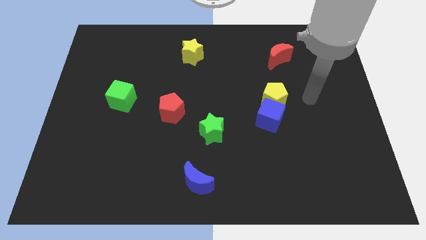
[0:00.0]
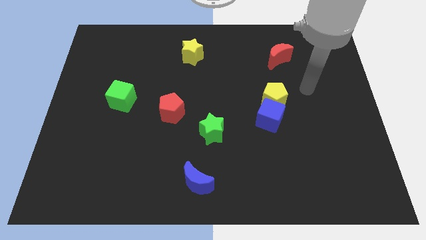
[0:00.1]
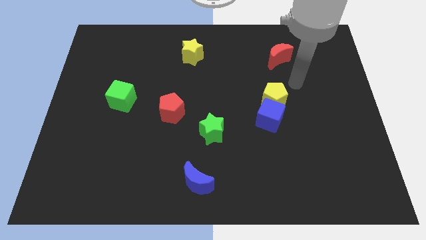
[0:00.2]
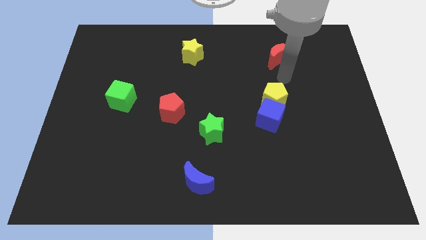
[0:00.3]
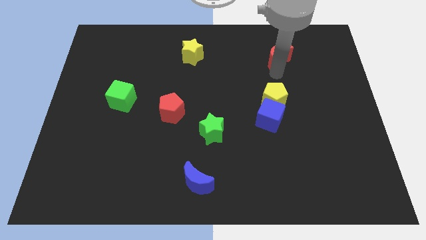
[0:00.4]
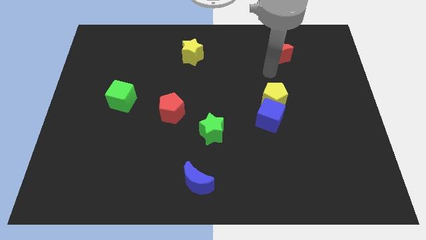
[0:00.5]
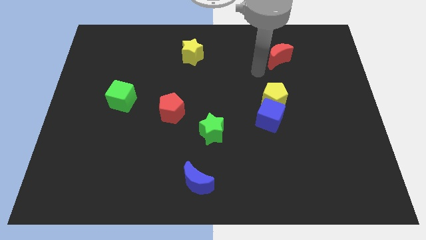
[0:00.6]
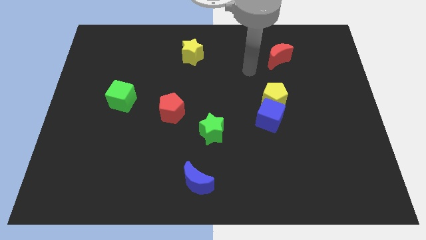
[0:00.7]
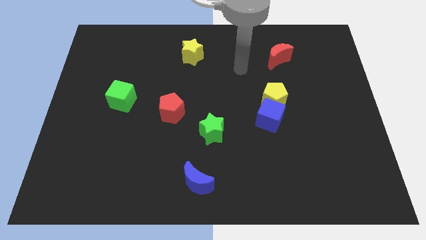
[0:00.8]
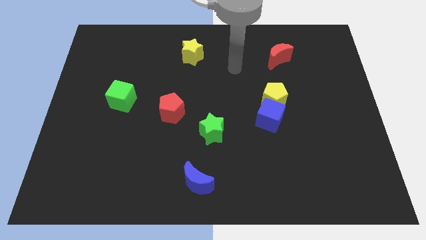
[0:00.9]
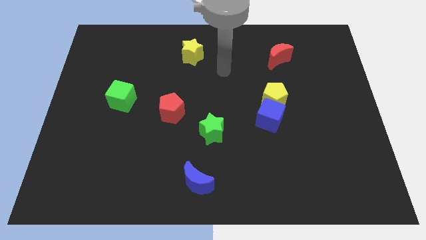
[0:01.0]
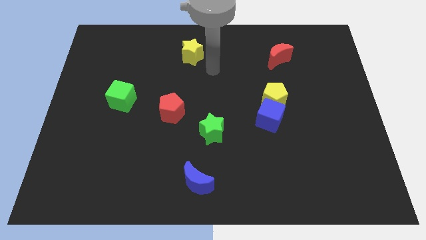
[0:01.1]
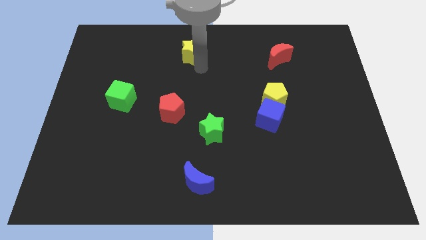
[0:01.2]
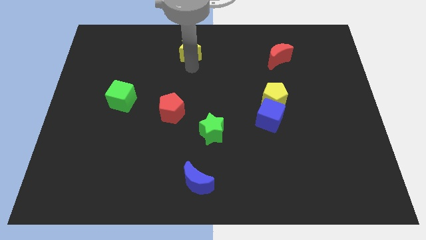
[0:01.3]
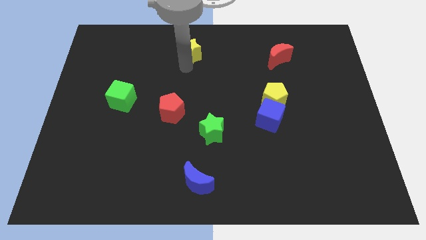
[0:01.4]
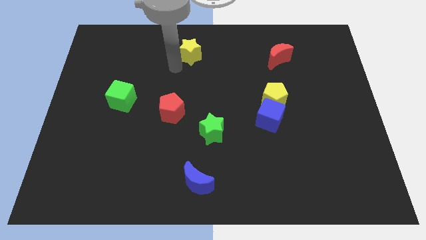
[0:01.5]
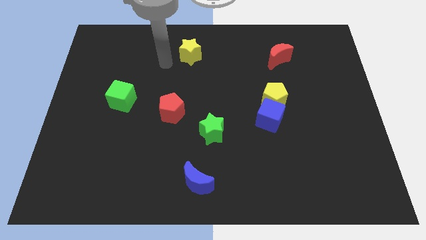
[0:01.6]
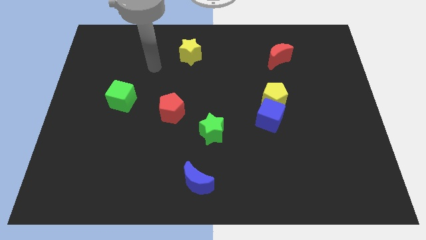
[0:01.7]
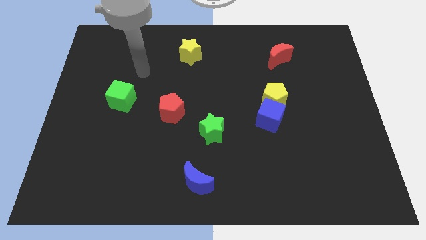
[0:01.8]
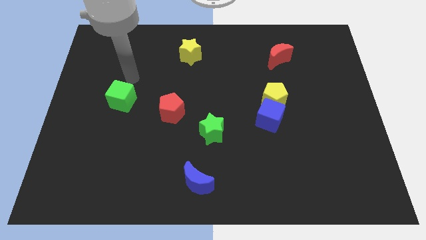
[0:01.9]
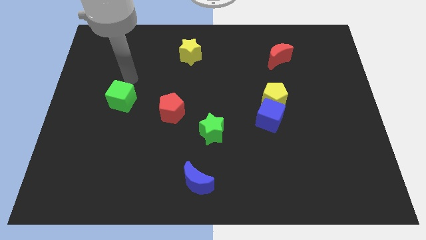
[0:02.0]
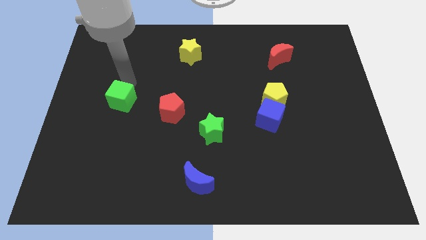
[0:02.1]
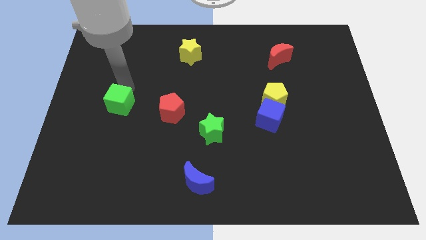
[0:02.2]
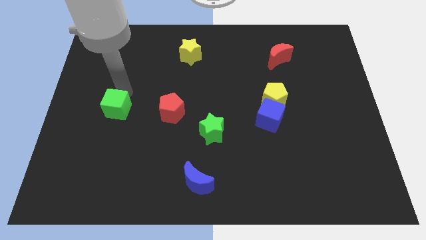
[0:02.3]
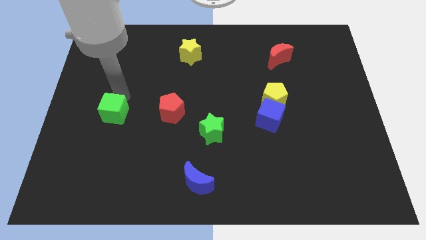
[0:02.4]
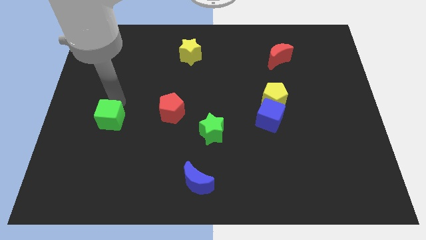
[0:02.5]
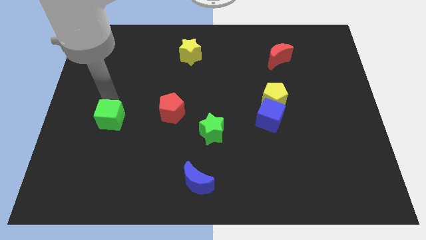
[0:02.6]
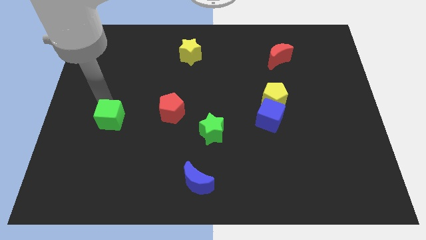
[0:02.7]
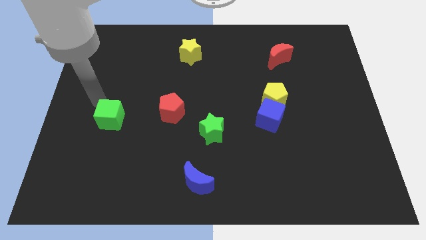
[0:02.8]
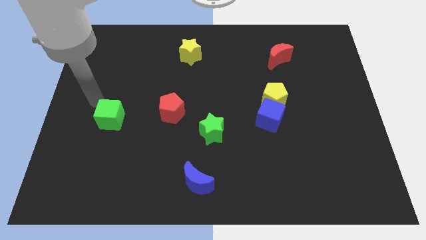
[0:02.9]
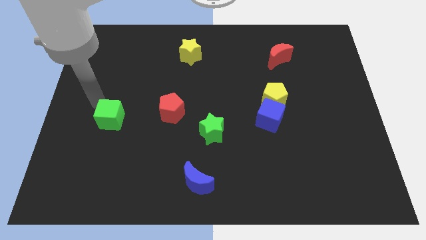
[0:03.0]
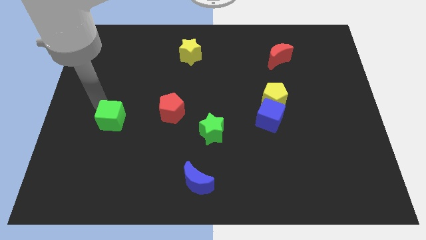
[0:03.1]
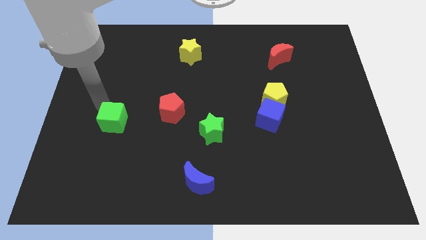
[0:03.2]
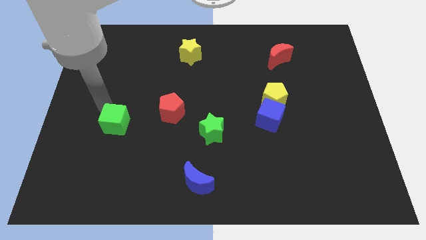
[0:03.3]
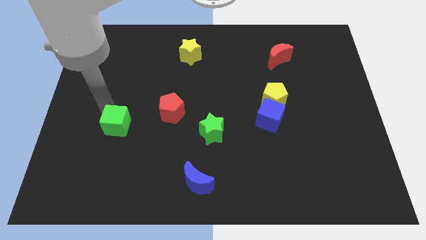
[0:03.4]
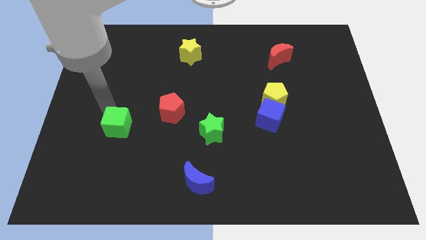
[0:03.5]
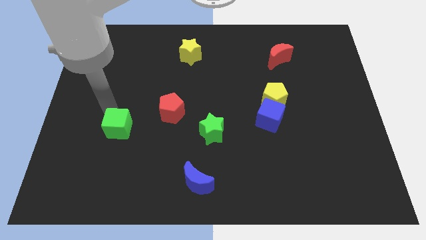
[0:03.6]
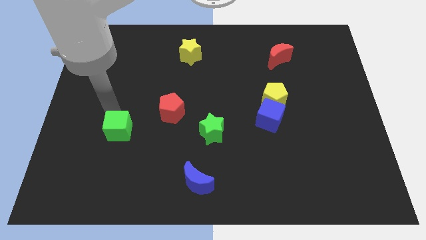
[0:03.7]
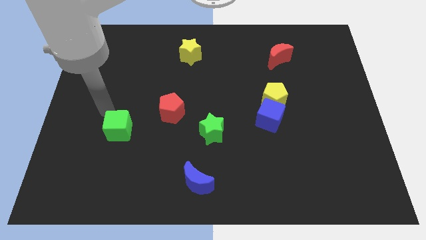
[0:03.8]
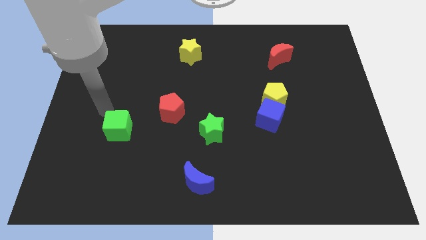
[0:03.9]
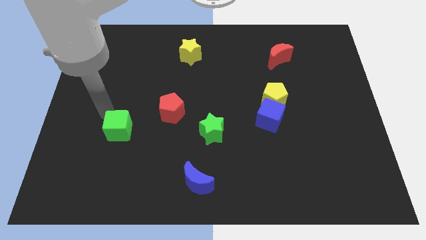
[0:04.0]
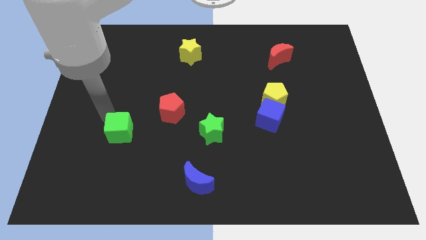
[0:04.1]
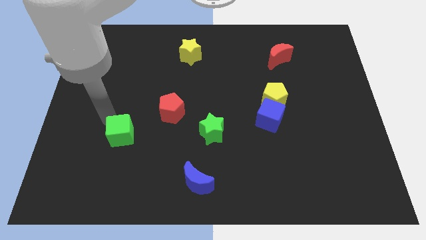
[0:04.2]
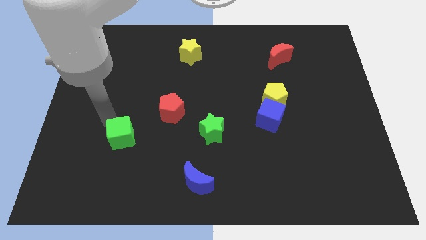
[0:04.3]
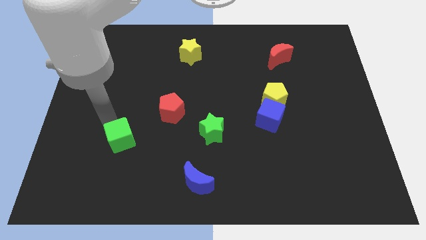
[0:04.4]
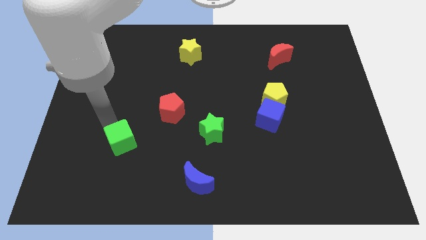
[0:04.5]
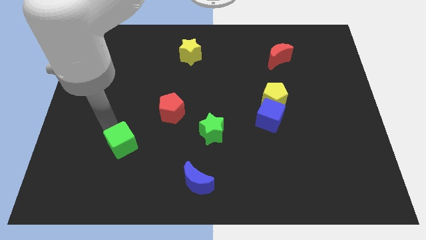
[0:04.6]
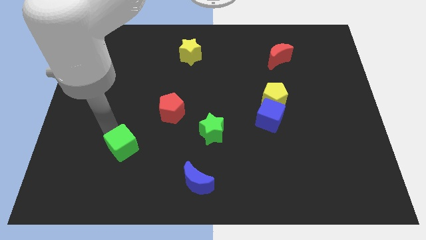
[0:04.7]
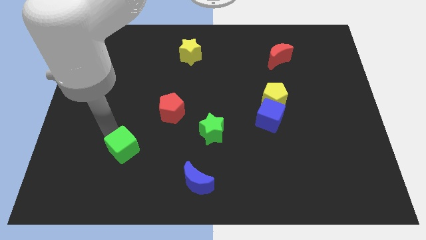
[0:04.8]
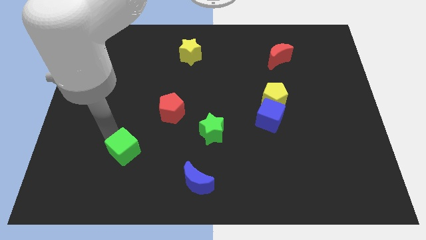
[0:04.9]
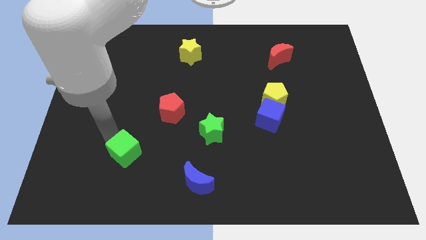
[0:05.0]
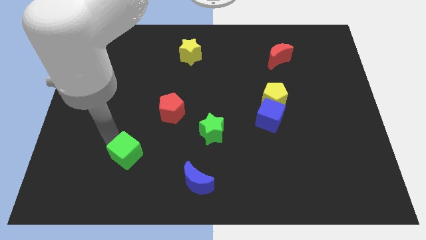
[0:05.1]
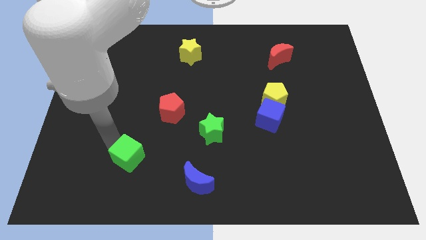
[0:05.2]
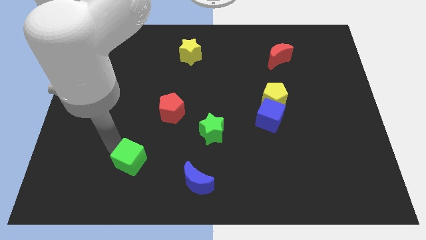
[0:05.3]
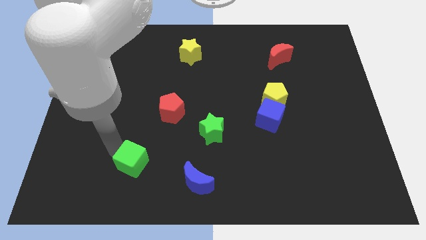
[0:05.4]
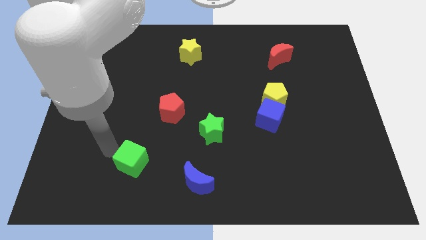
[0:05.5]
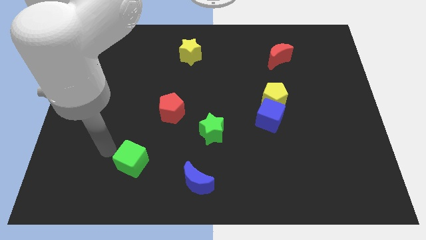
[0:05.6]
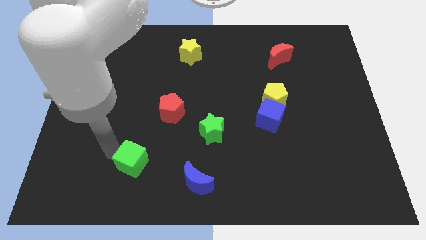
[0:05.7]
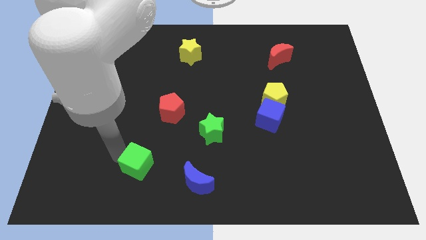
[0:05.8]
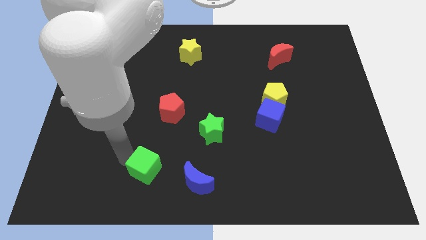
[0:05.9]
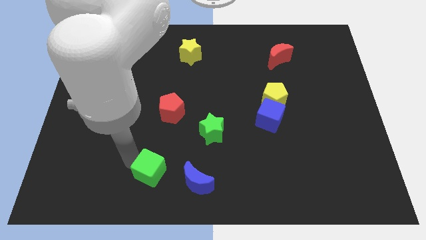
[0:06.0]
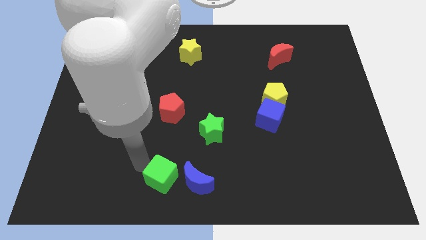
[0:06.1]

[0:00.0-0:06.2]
slide the green cube to the bottom

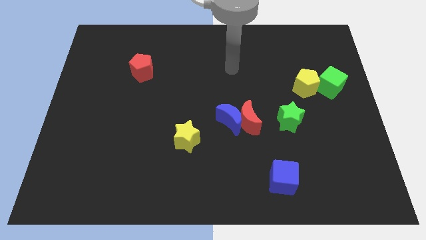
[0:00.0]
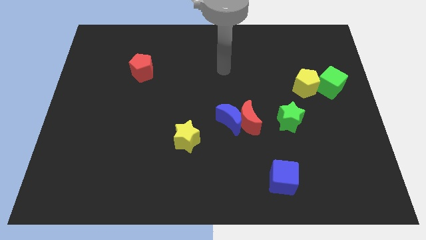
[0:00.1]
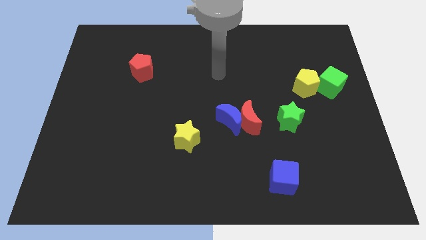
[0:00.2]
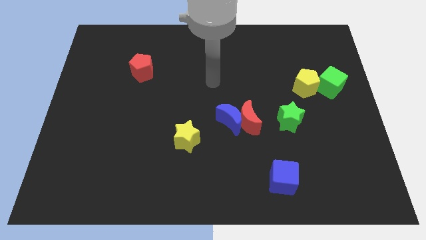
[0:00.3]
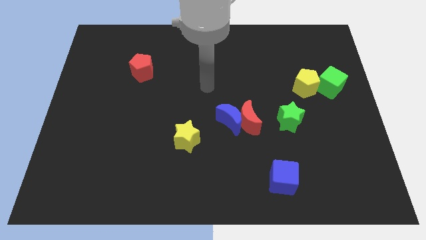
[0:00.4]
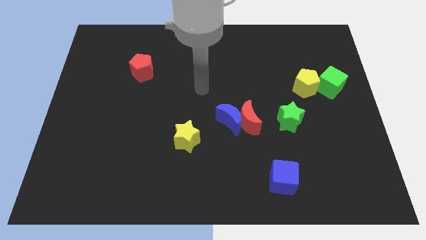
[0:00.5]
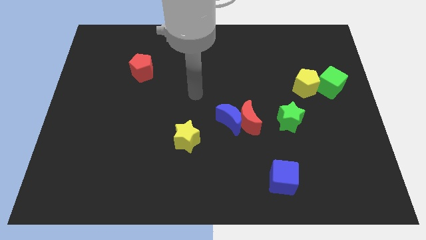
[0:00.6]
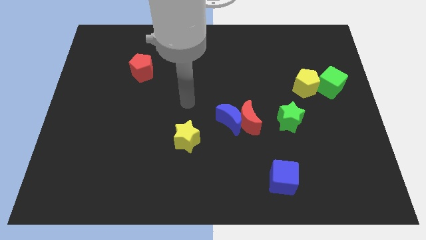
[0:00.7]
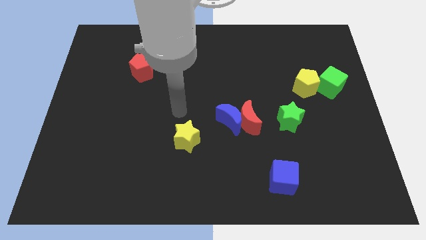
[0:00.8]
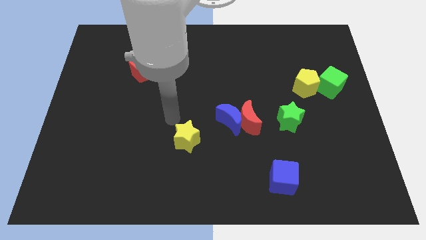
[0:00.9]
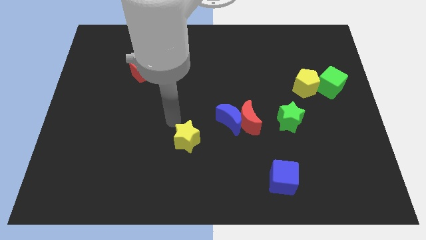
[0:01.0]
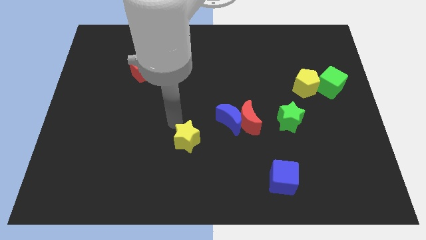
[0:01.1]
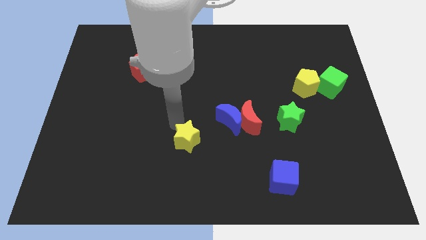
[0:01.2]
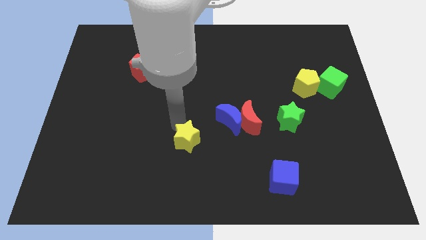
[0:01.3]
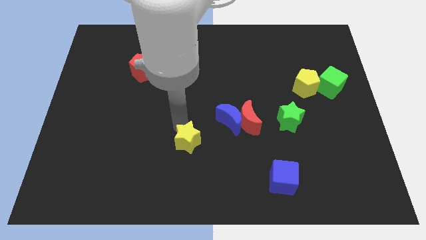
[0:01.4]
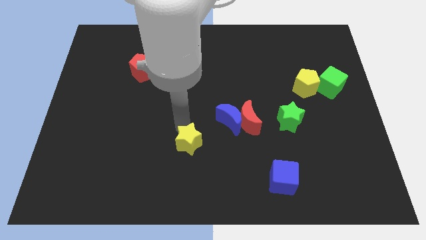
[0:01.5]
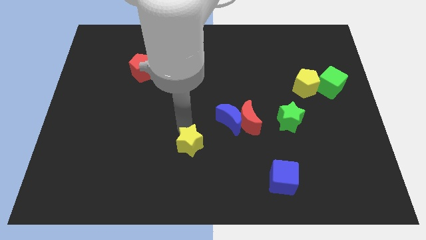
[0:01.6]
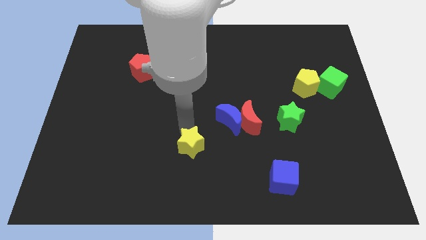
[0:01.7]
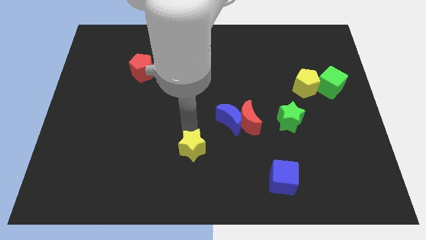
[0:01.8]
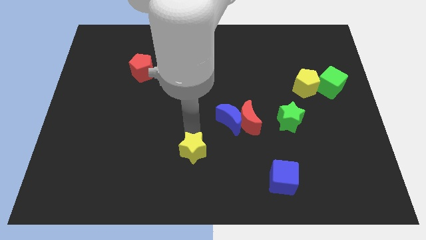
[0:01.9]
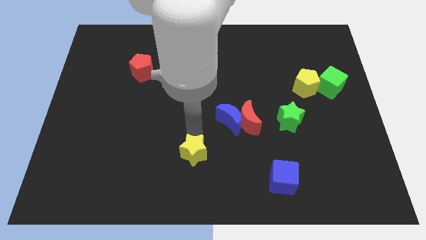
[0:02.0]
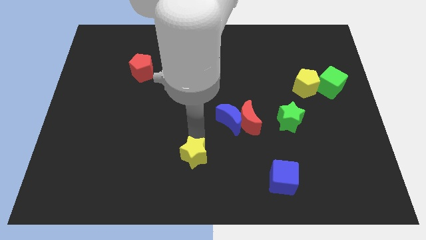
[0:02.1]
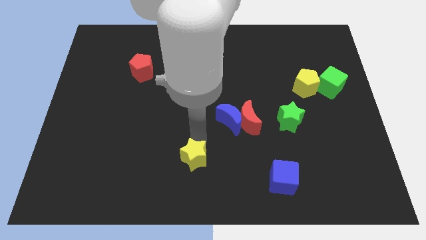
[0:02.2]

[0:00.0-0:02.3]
slide the yellow star to the bottom
